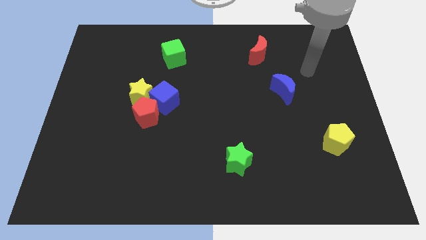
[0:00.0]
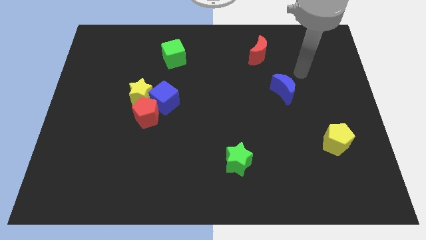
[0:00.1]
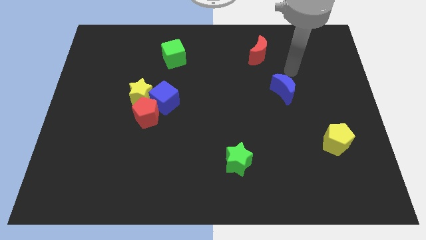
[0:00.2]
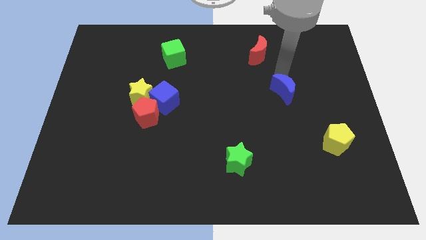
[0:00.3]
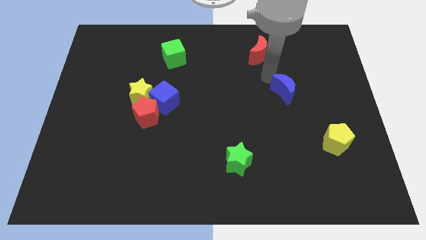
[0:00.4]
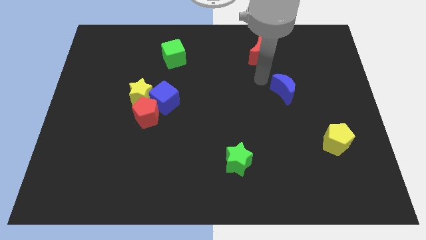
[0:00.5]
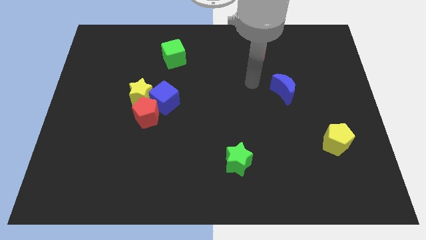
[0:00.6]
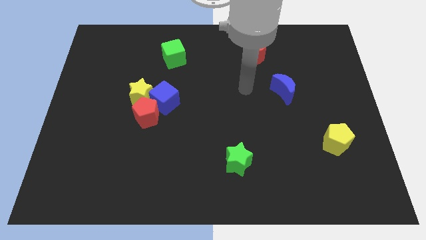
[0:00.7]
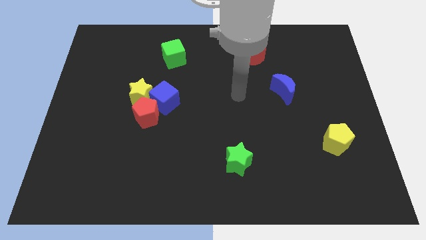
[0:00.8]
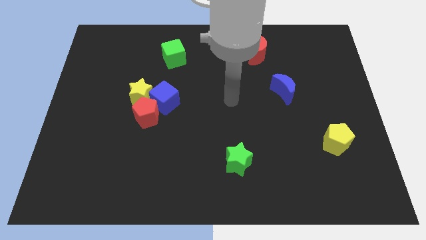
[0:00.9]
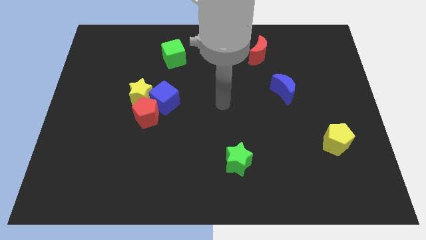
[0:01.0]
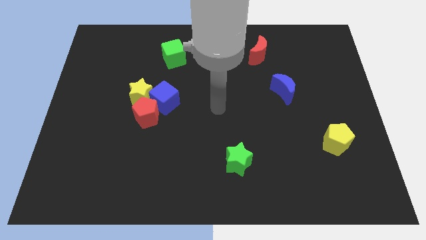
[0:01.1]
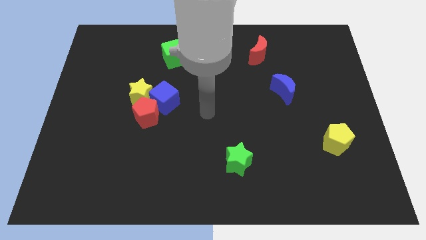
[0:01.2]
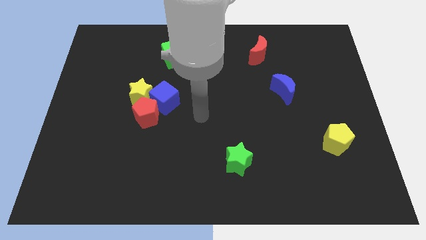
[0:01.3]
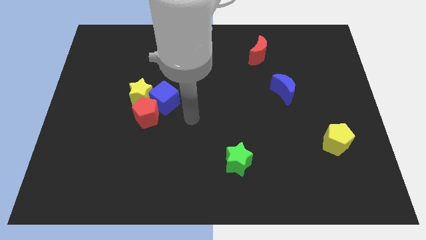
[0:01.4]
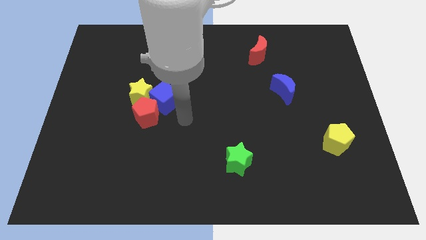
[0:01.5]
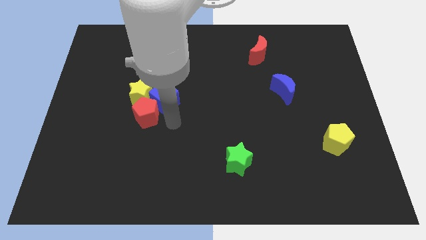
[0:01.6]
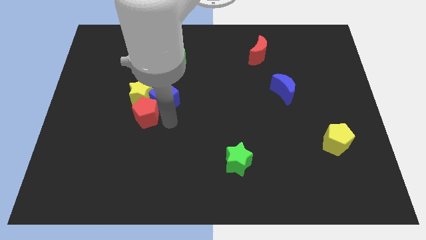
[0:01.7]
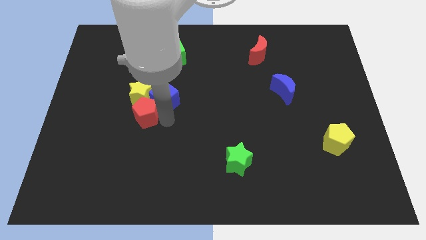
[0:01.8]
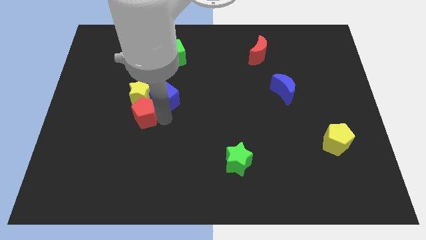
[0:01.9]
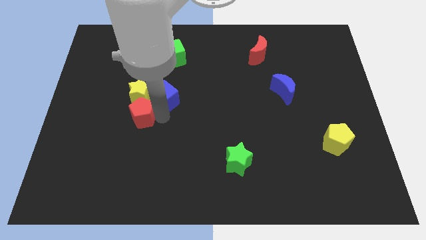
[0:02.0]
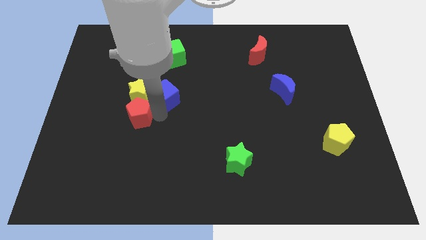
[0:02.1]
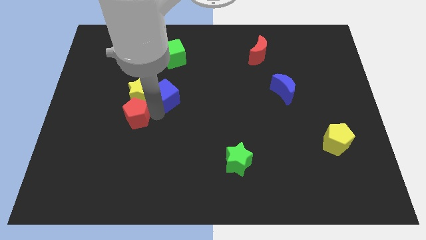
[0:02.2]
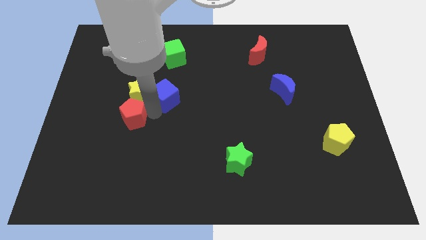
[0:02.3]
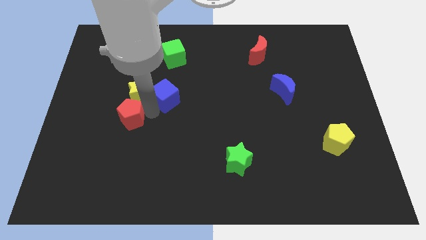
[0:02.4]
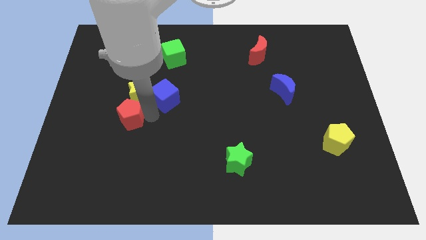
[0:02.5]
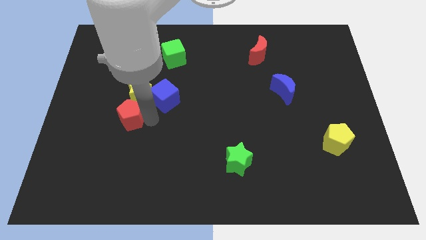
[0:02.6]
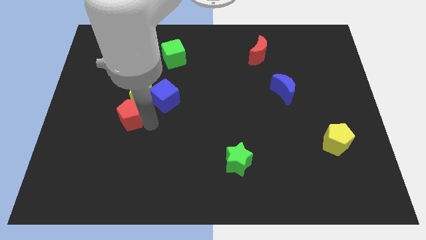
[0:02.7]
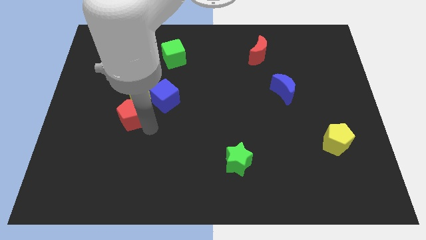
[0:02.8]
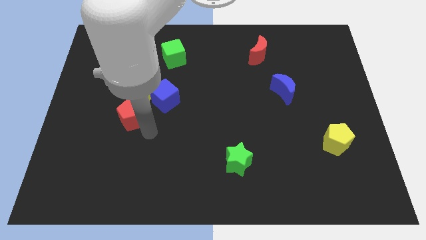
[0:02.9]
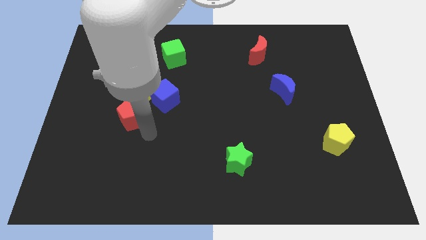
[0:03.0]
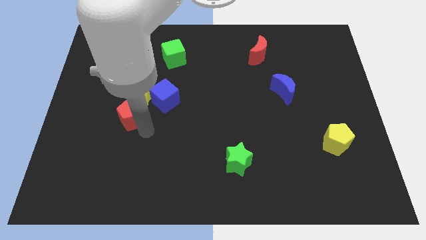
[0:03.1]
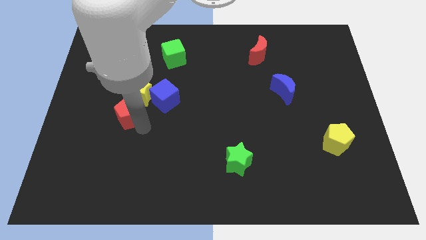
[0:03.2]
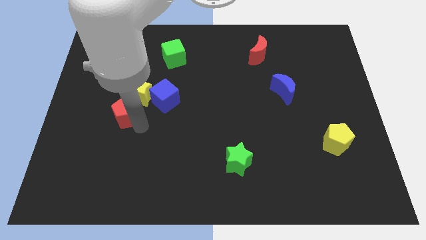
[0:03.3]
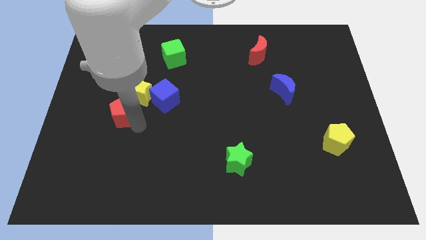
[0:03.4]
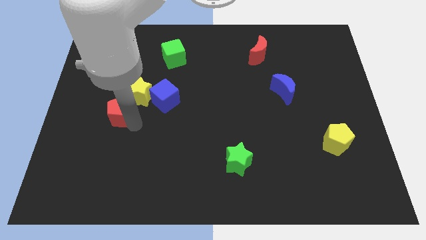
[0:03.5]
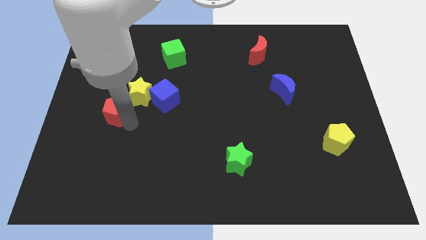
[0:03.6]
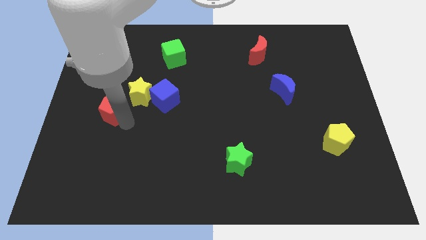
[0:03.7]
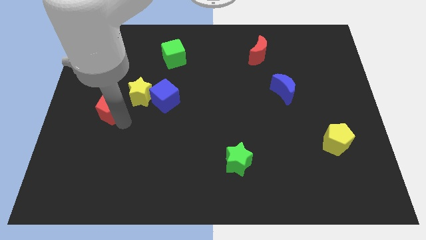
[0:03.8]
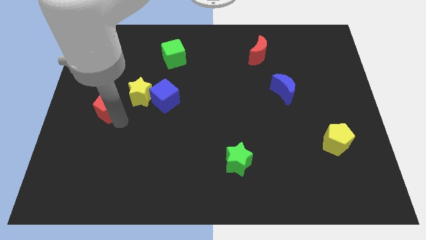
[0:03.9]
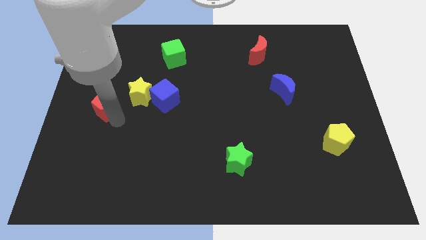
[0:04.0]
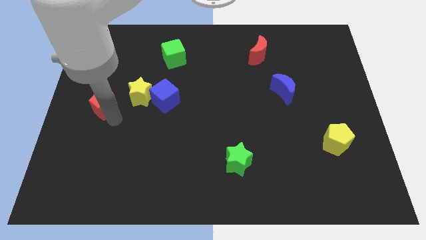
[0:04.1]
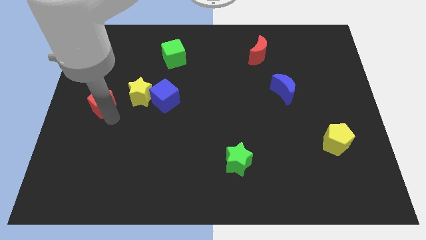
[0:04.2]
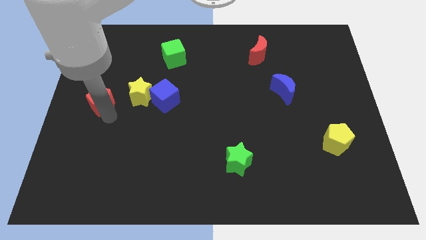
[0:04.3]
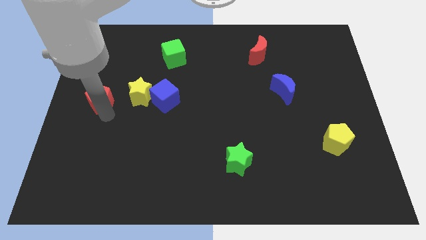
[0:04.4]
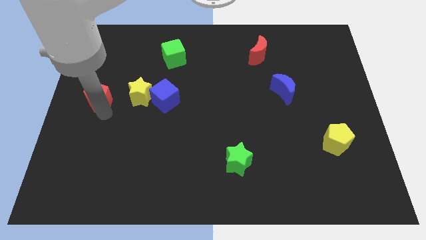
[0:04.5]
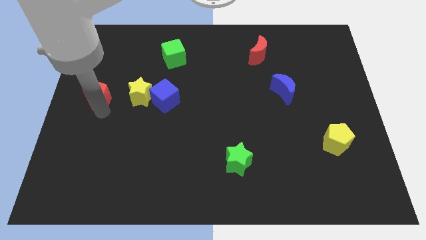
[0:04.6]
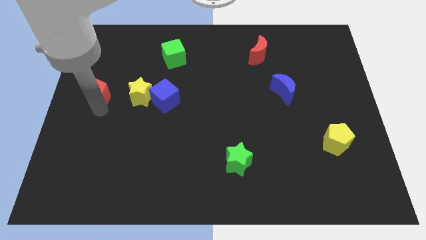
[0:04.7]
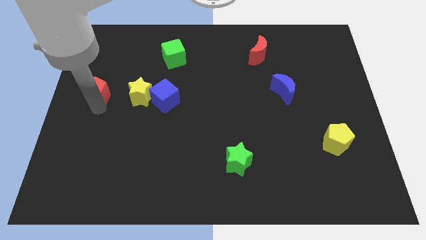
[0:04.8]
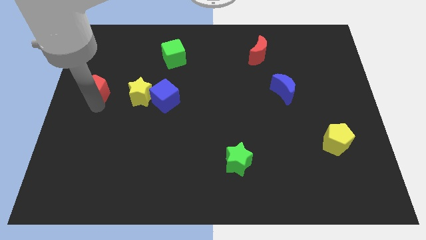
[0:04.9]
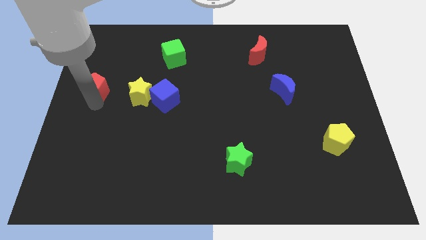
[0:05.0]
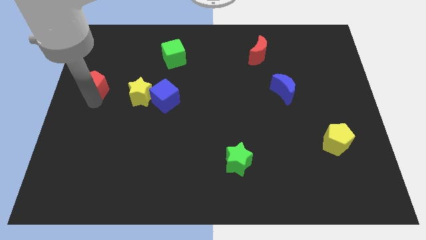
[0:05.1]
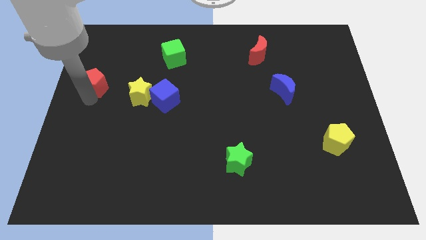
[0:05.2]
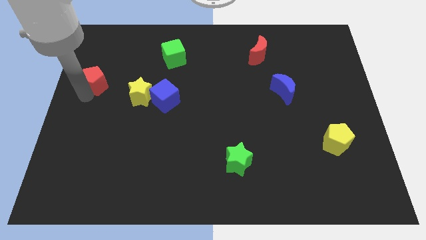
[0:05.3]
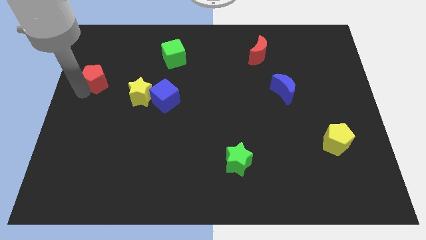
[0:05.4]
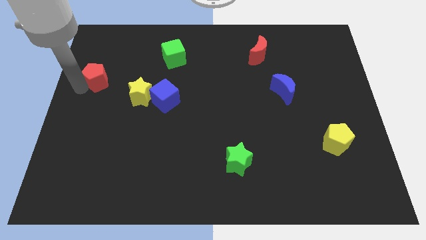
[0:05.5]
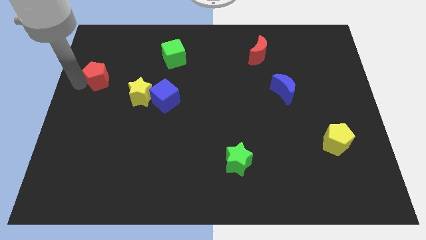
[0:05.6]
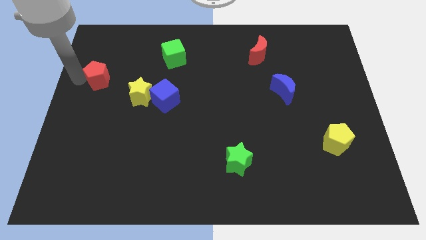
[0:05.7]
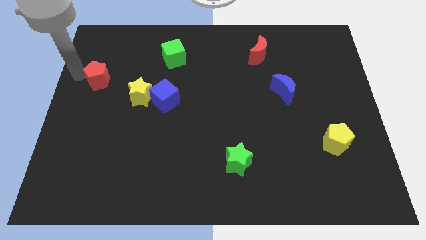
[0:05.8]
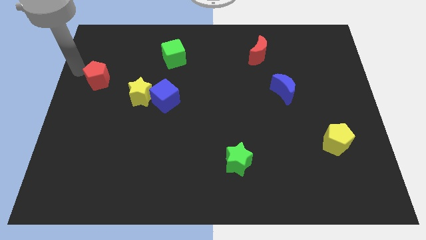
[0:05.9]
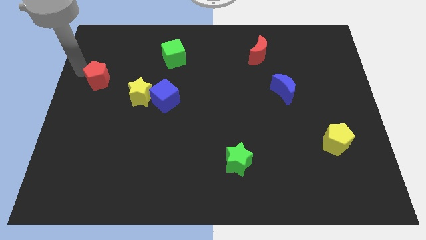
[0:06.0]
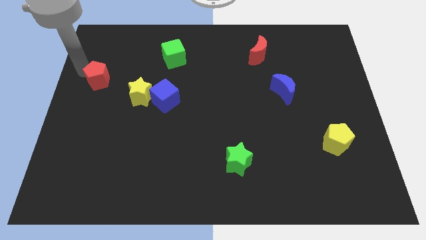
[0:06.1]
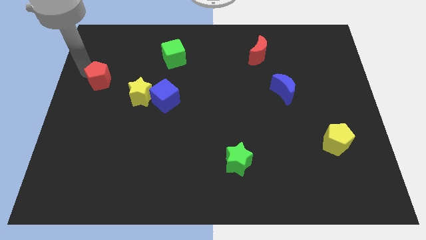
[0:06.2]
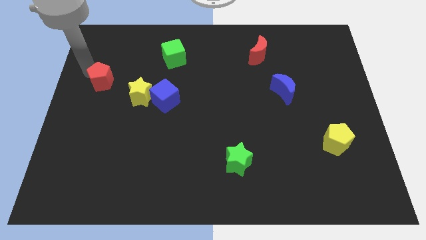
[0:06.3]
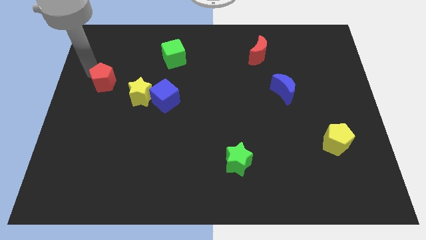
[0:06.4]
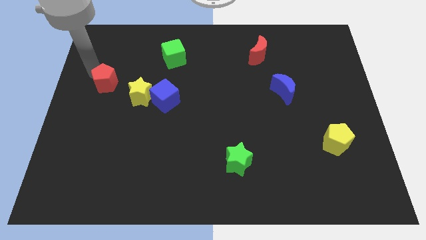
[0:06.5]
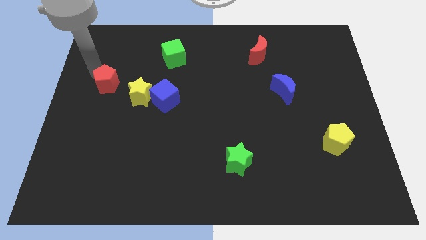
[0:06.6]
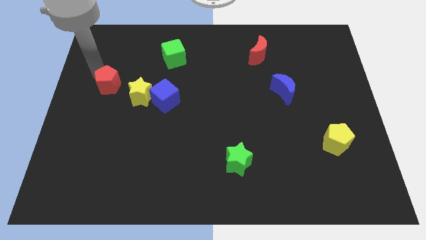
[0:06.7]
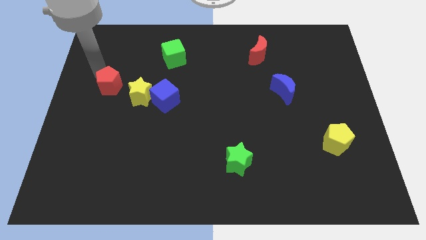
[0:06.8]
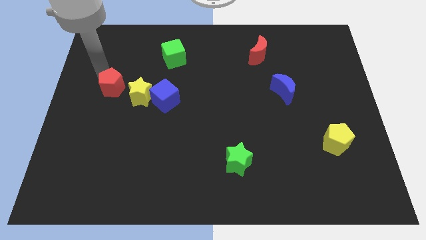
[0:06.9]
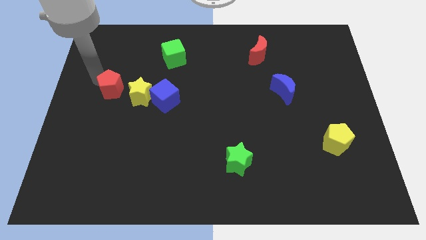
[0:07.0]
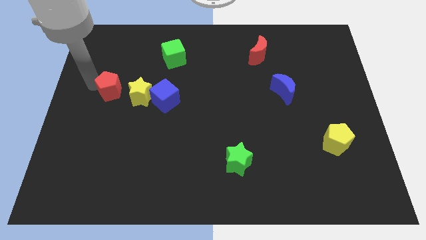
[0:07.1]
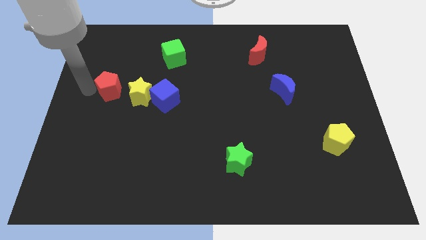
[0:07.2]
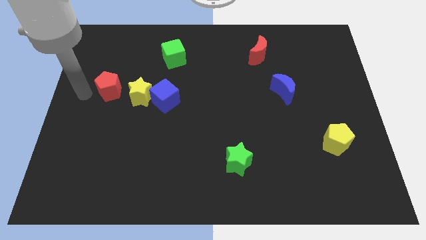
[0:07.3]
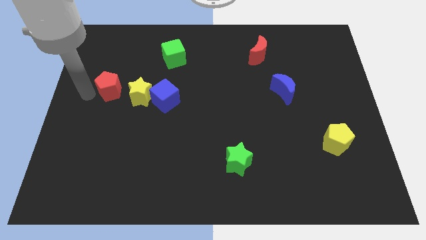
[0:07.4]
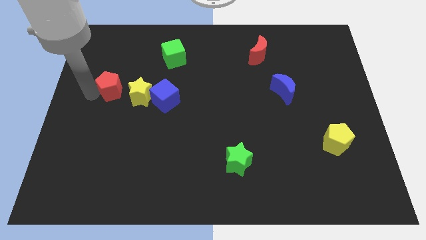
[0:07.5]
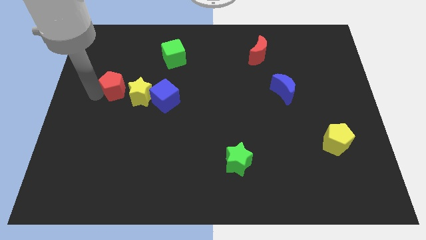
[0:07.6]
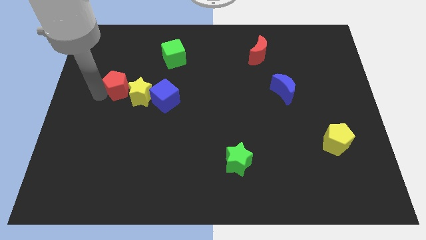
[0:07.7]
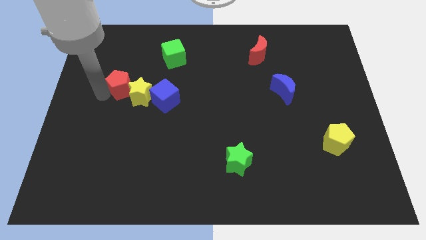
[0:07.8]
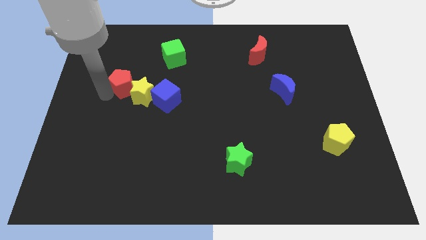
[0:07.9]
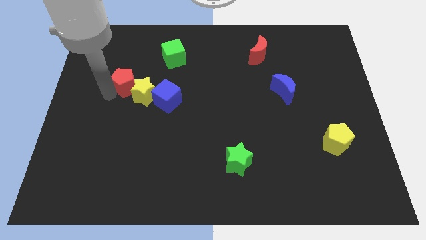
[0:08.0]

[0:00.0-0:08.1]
slide the red pentagon diagonally up and to the left of the blue cube
